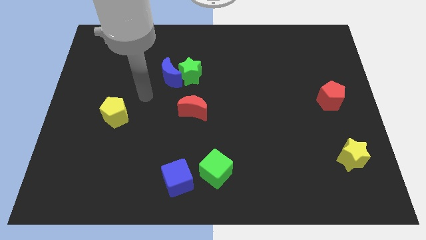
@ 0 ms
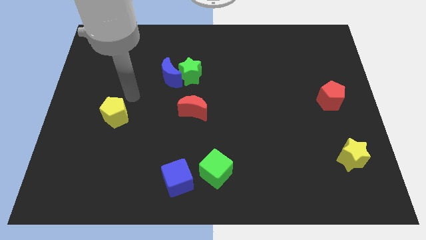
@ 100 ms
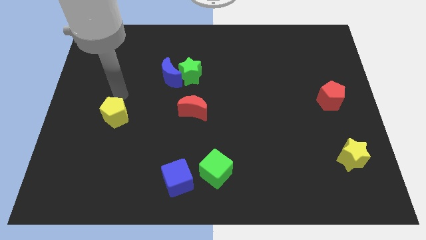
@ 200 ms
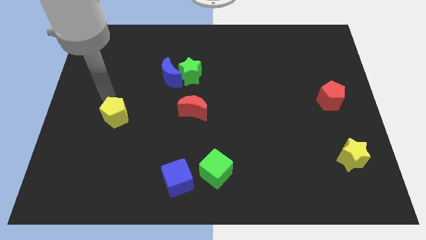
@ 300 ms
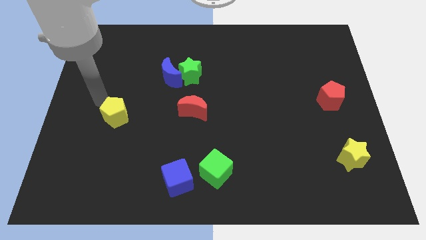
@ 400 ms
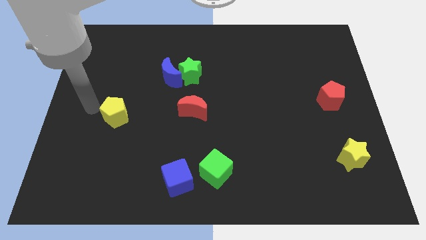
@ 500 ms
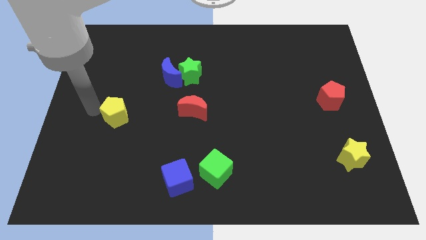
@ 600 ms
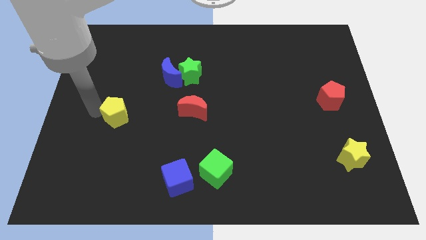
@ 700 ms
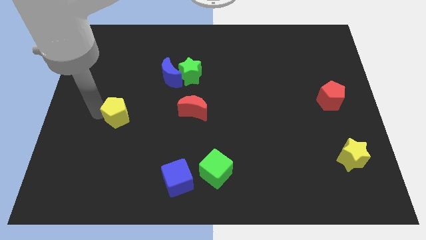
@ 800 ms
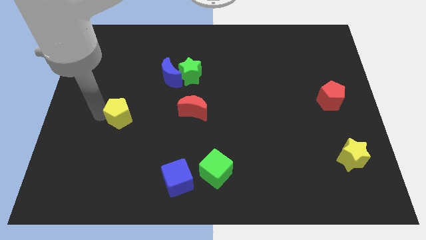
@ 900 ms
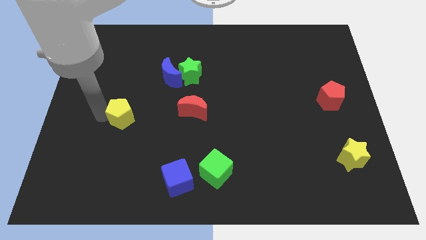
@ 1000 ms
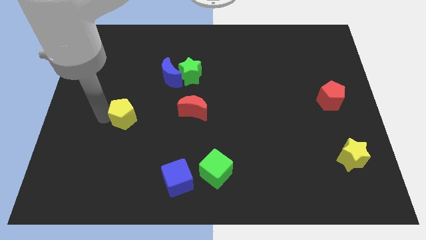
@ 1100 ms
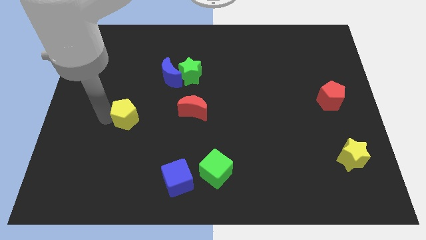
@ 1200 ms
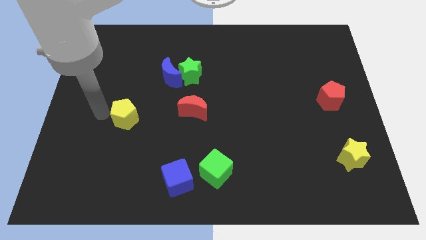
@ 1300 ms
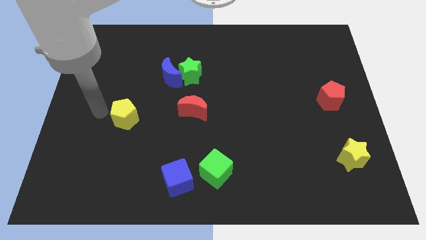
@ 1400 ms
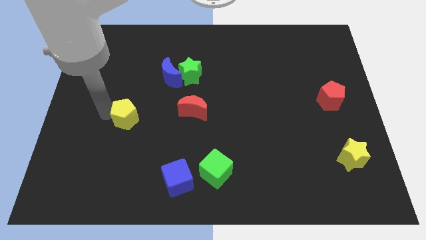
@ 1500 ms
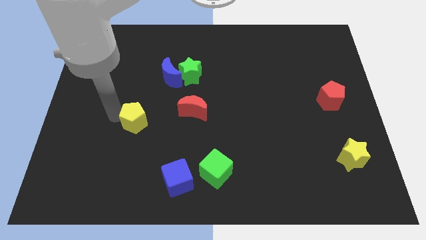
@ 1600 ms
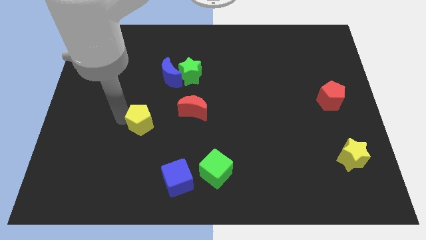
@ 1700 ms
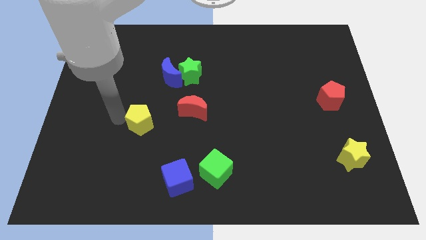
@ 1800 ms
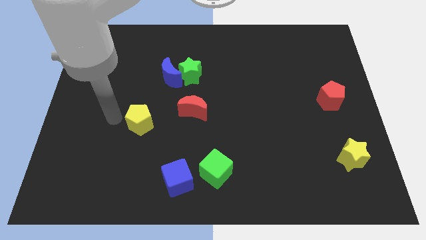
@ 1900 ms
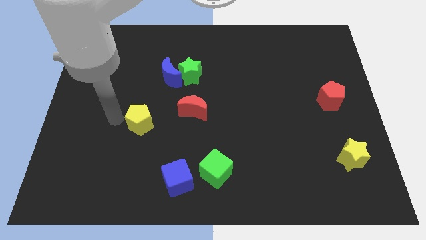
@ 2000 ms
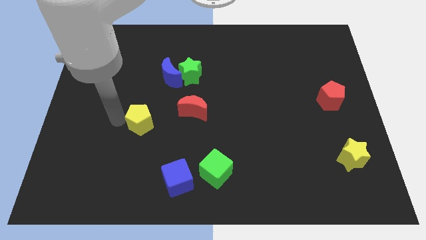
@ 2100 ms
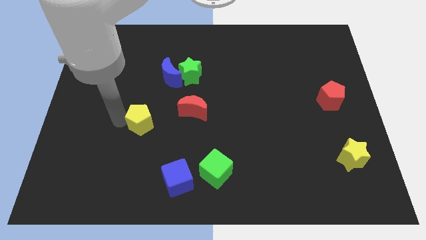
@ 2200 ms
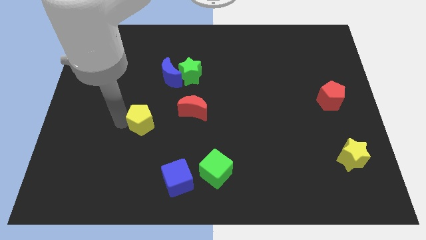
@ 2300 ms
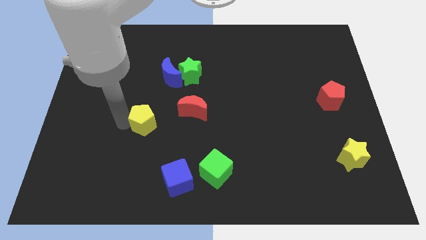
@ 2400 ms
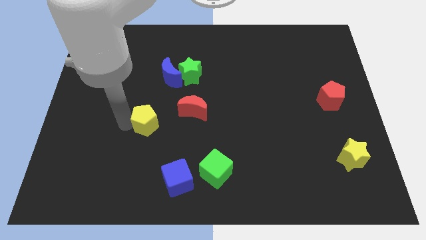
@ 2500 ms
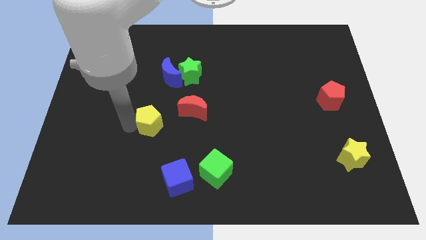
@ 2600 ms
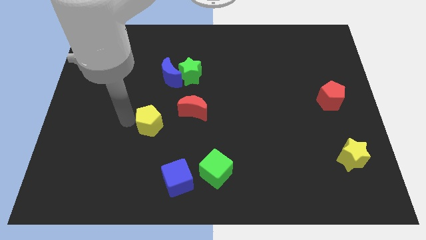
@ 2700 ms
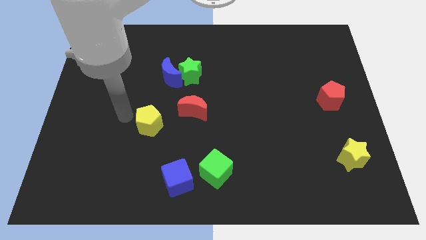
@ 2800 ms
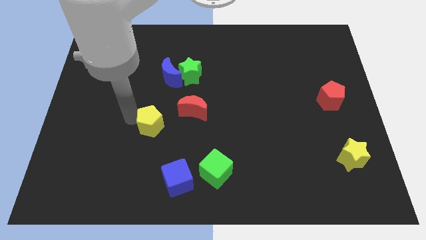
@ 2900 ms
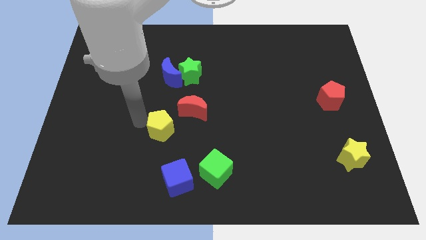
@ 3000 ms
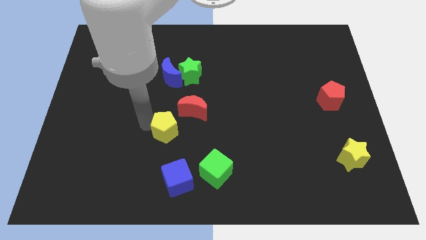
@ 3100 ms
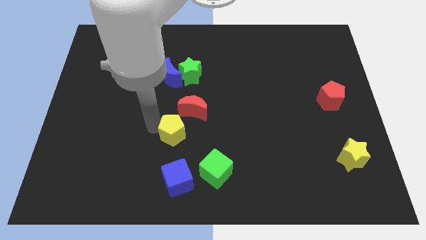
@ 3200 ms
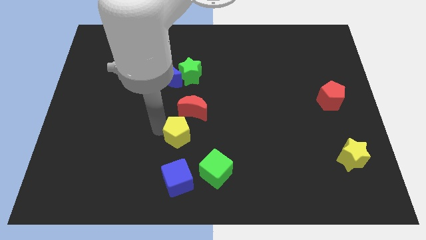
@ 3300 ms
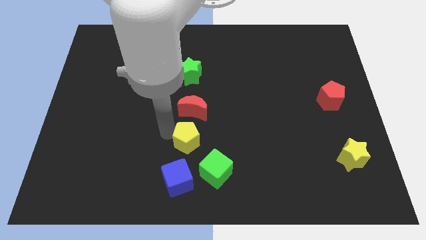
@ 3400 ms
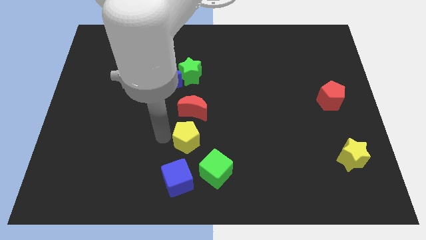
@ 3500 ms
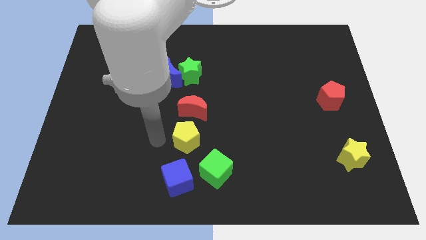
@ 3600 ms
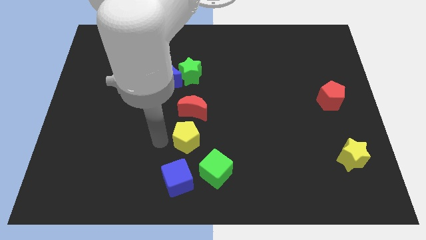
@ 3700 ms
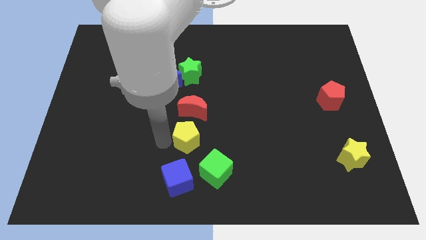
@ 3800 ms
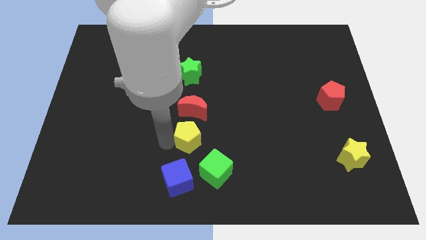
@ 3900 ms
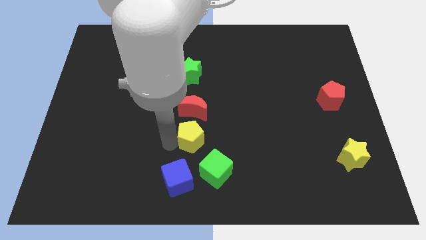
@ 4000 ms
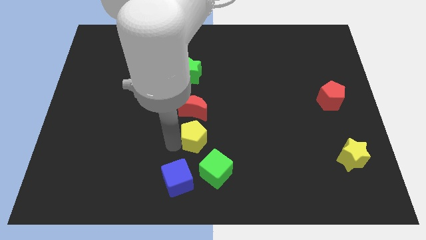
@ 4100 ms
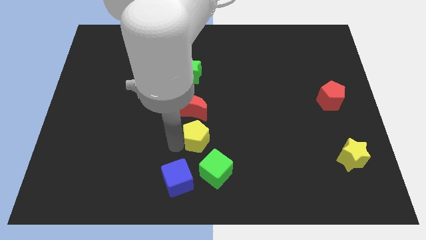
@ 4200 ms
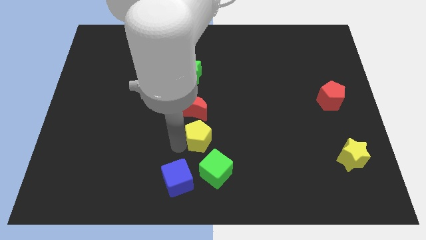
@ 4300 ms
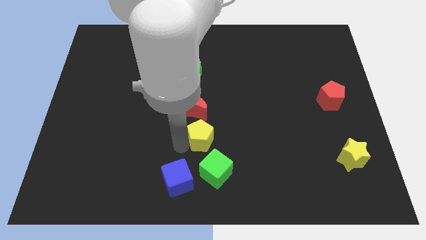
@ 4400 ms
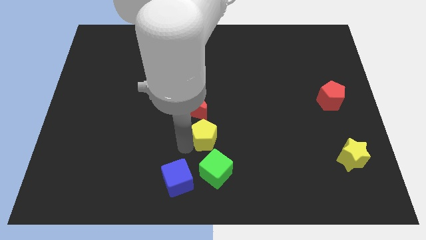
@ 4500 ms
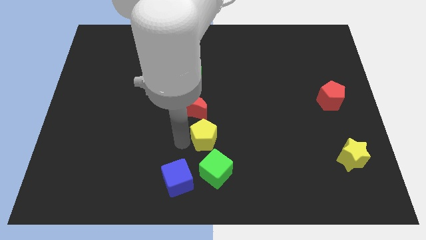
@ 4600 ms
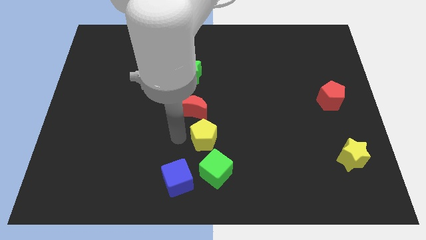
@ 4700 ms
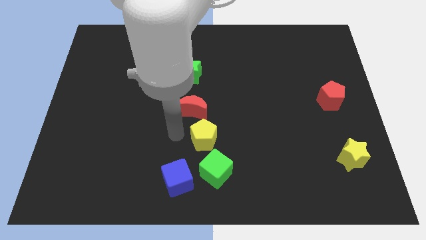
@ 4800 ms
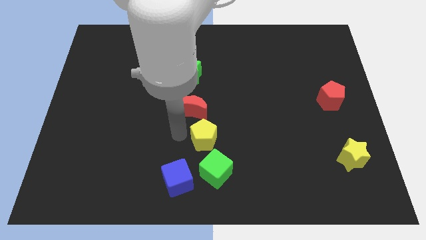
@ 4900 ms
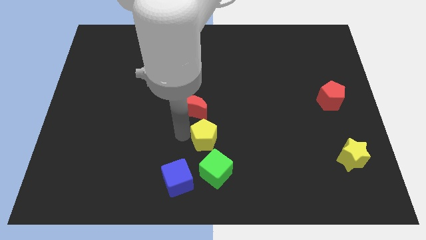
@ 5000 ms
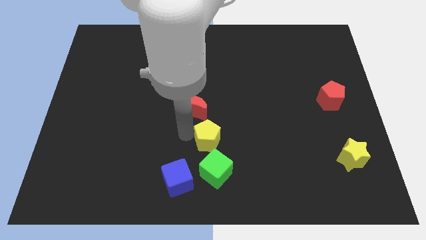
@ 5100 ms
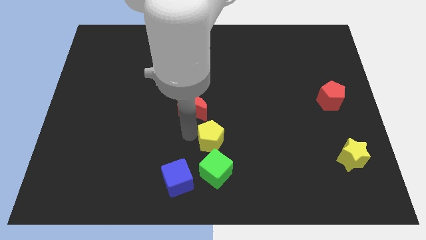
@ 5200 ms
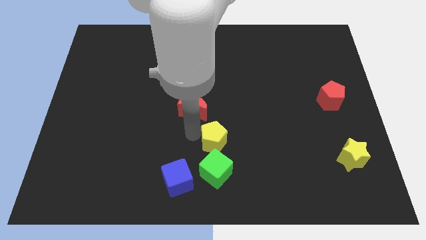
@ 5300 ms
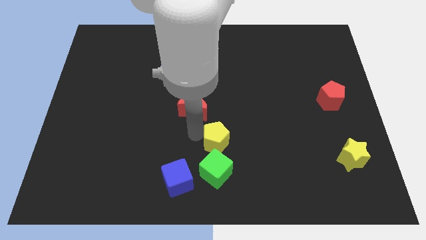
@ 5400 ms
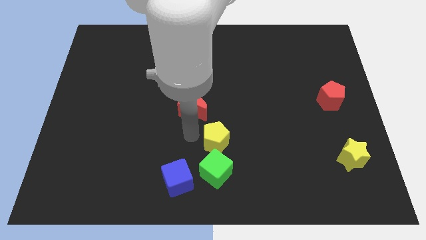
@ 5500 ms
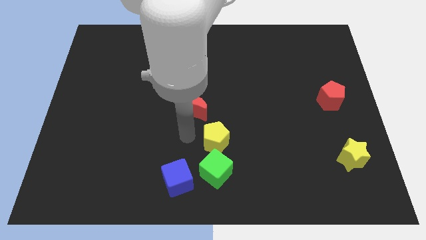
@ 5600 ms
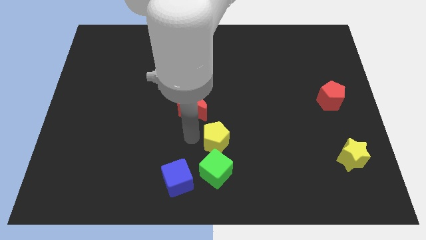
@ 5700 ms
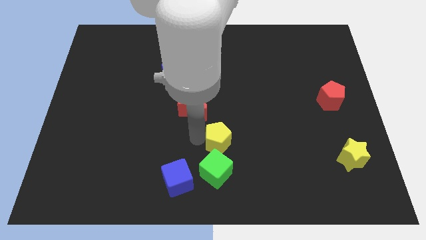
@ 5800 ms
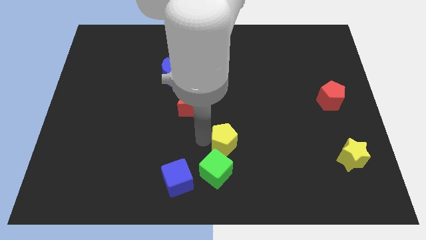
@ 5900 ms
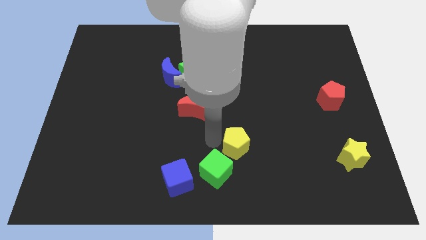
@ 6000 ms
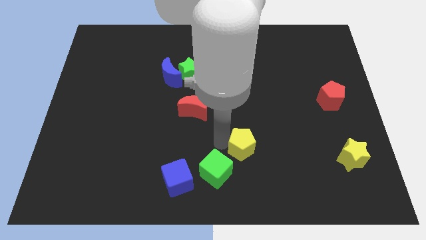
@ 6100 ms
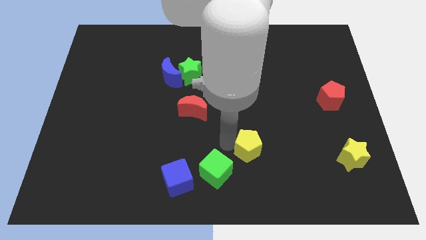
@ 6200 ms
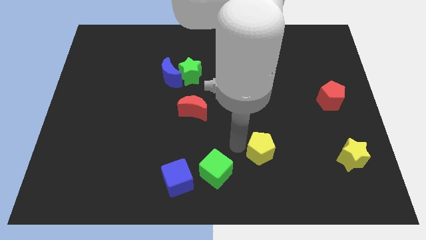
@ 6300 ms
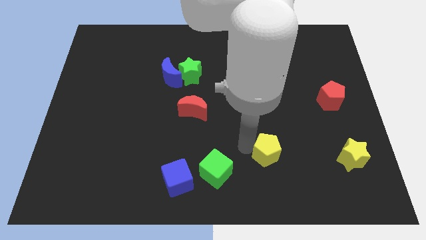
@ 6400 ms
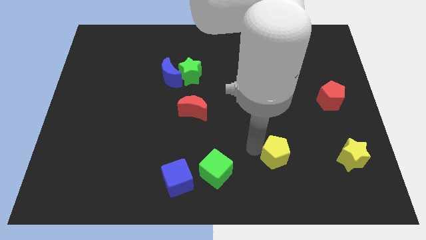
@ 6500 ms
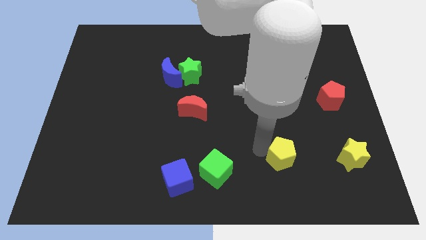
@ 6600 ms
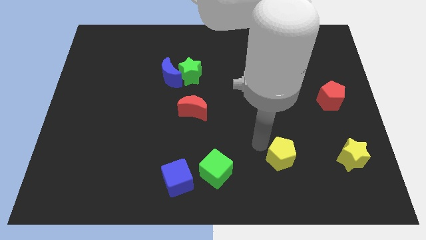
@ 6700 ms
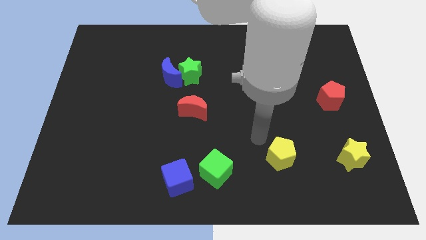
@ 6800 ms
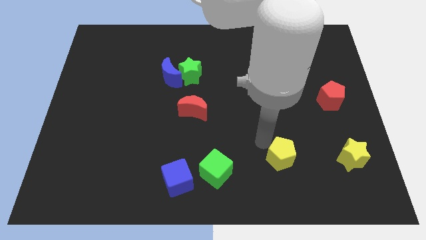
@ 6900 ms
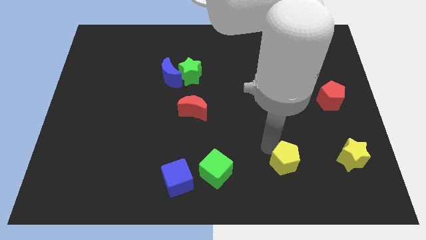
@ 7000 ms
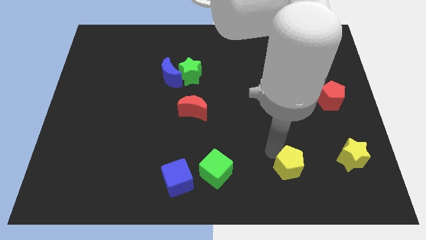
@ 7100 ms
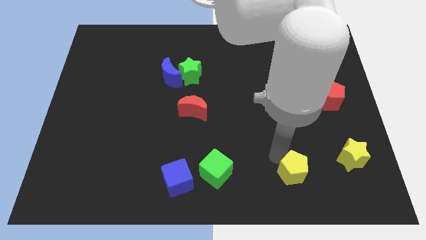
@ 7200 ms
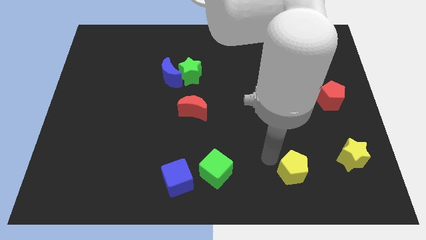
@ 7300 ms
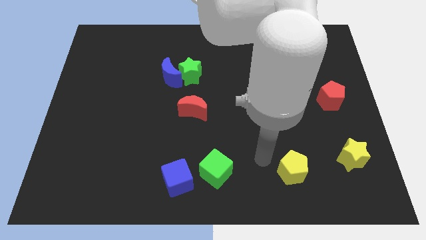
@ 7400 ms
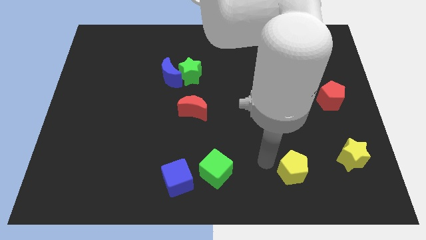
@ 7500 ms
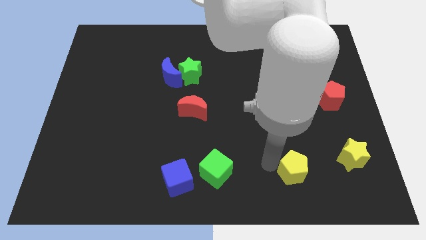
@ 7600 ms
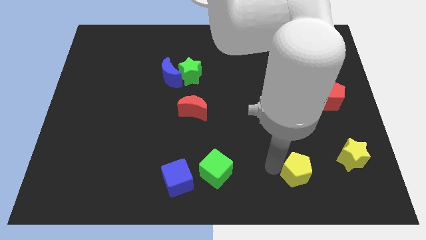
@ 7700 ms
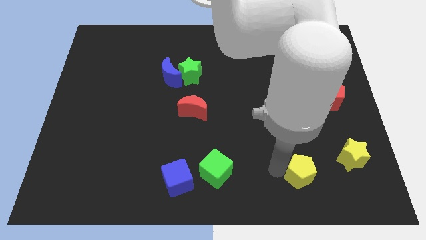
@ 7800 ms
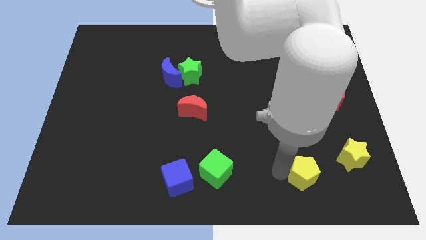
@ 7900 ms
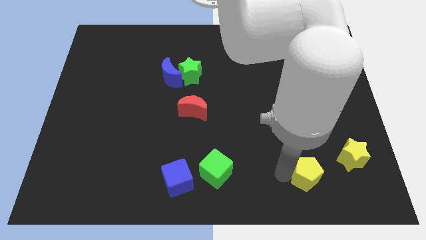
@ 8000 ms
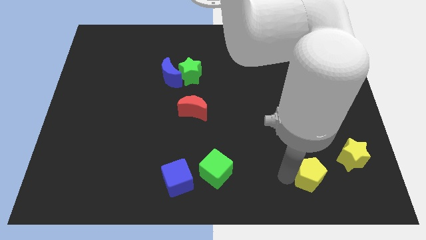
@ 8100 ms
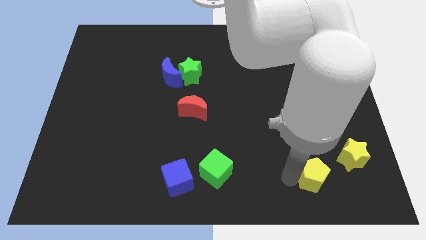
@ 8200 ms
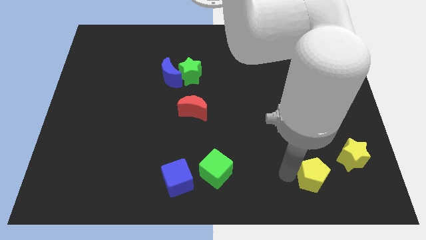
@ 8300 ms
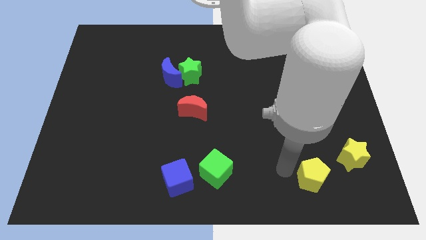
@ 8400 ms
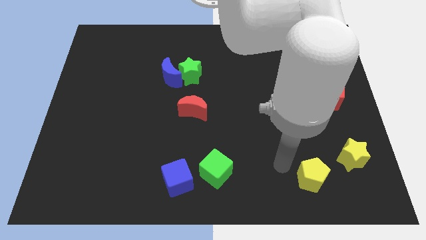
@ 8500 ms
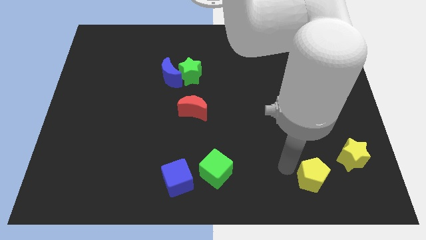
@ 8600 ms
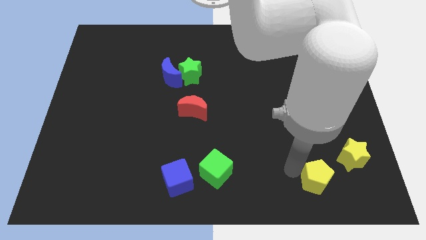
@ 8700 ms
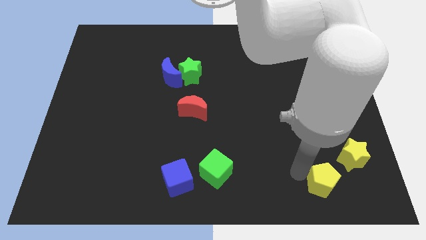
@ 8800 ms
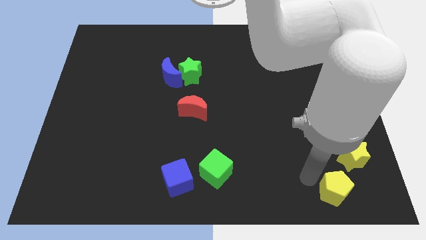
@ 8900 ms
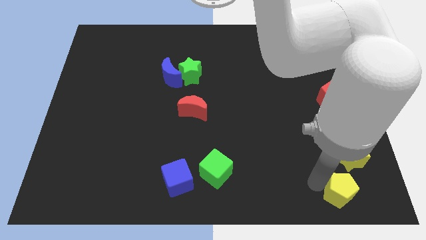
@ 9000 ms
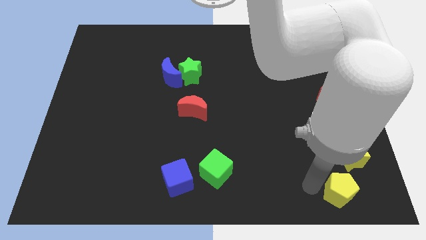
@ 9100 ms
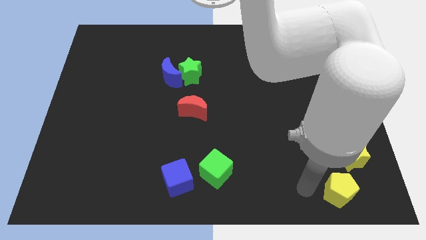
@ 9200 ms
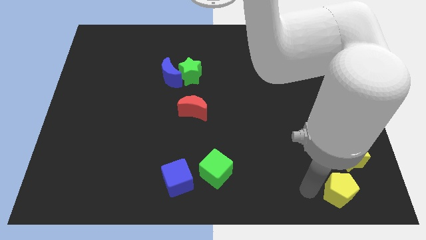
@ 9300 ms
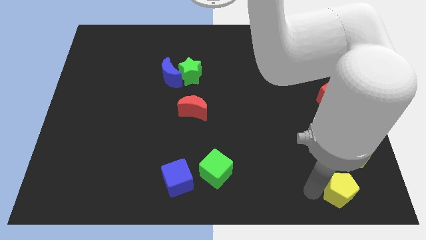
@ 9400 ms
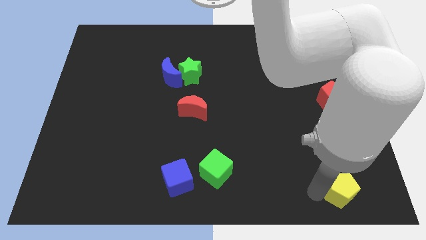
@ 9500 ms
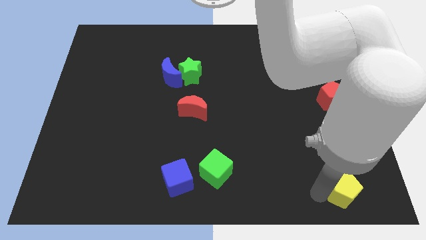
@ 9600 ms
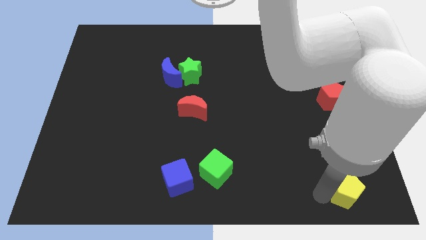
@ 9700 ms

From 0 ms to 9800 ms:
push the yellow pentagon to the lower right corner
